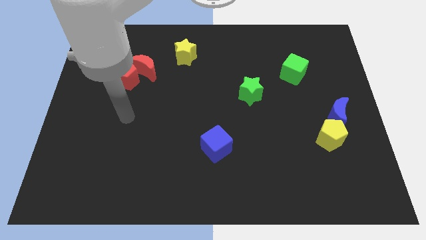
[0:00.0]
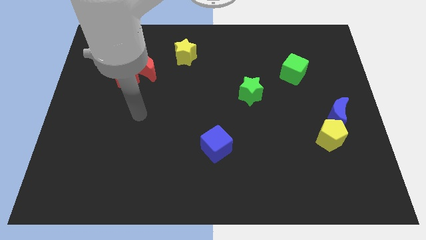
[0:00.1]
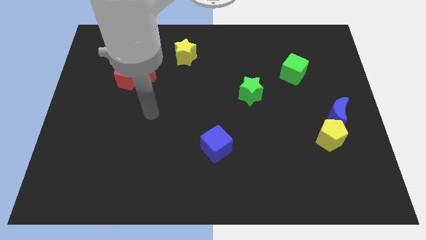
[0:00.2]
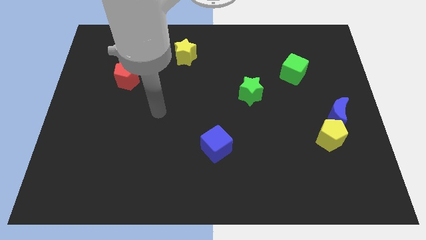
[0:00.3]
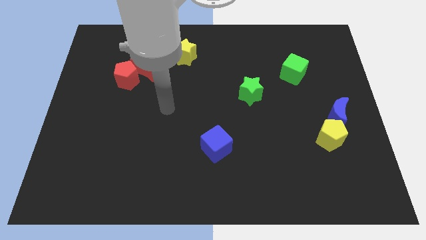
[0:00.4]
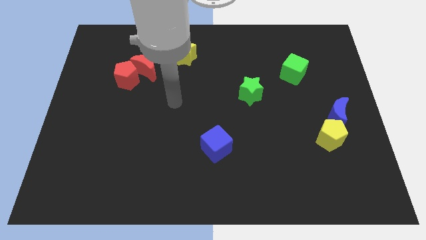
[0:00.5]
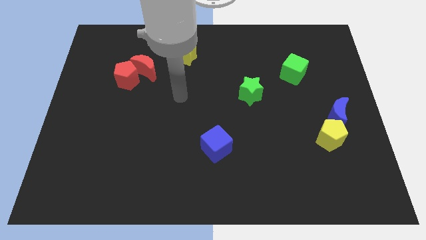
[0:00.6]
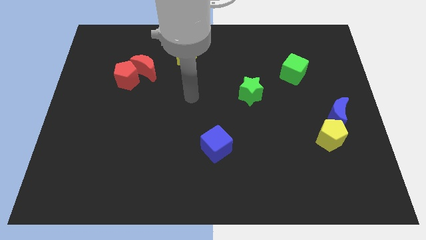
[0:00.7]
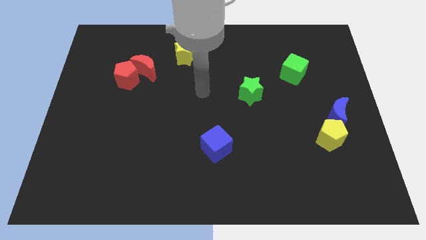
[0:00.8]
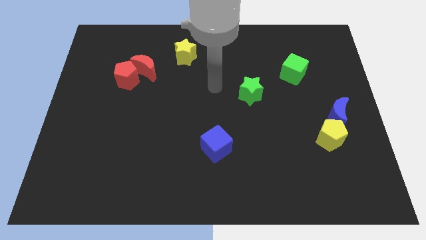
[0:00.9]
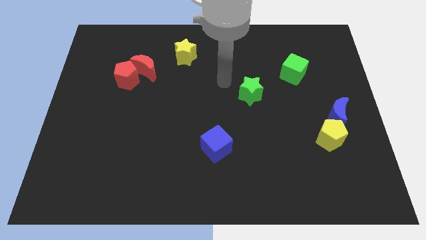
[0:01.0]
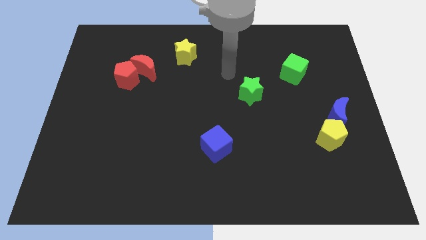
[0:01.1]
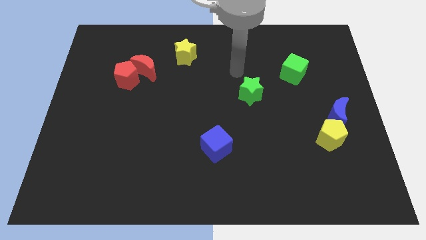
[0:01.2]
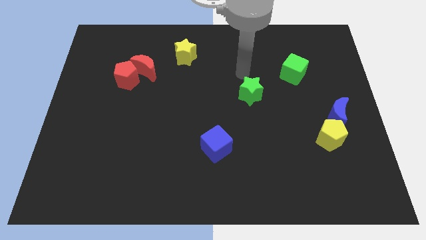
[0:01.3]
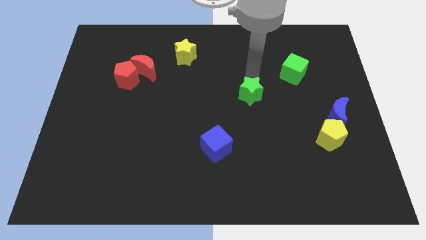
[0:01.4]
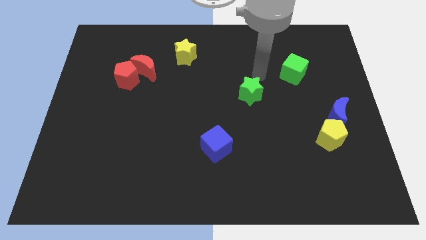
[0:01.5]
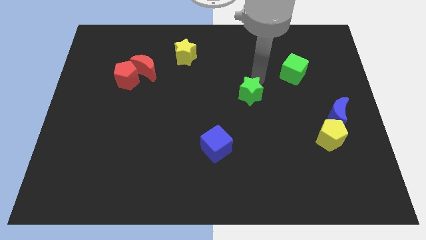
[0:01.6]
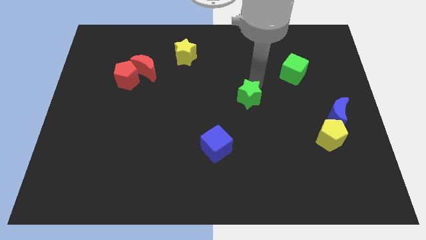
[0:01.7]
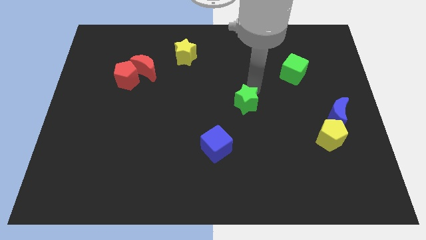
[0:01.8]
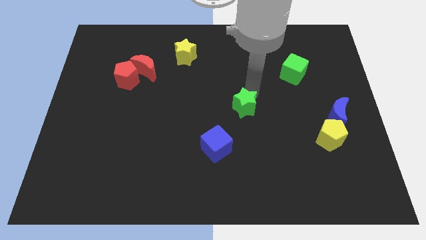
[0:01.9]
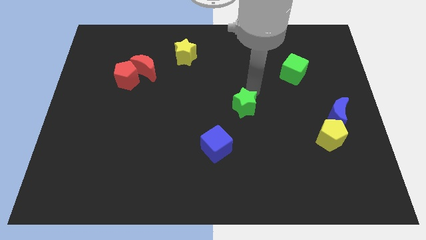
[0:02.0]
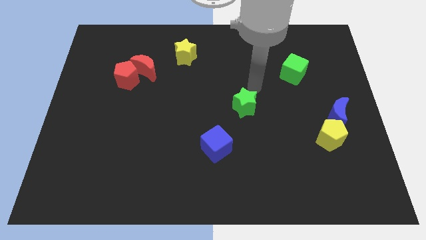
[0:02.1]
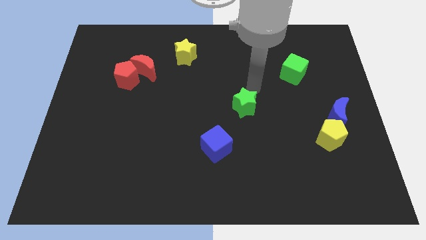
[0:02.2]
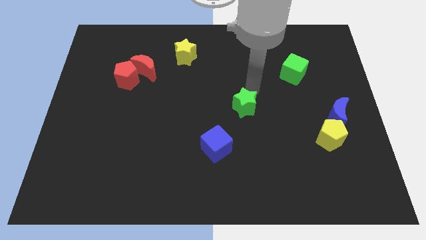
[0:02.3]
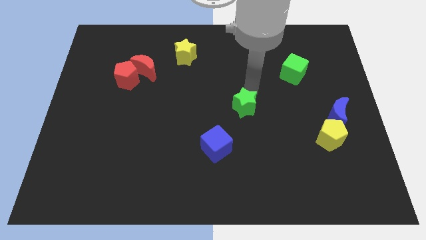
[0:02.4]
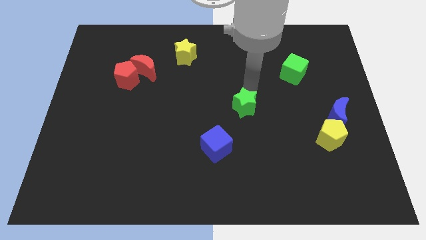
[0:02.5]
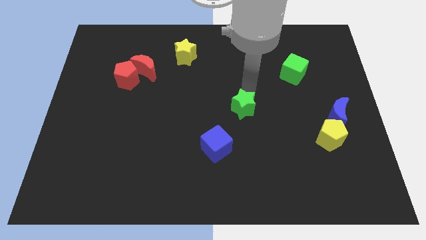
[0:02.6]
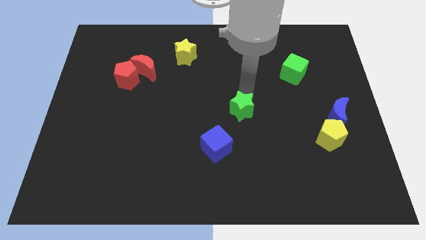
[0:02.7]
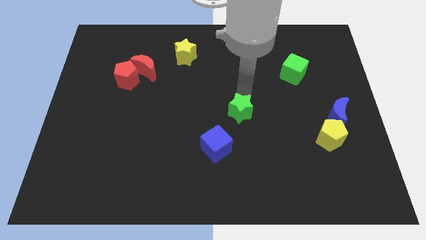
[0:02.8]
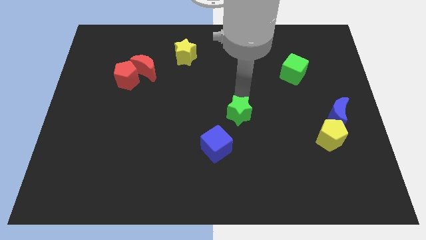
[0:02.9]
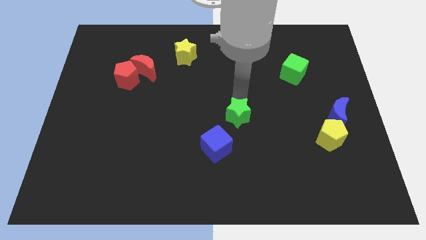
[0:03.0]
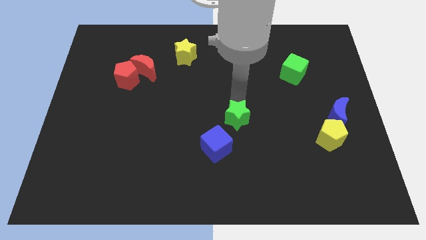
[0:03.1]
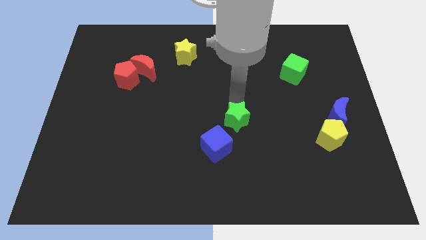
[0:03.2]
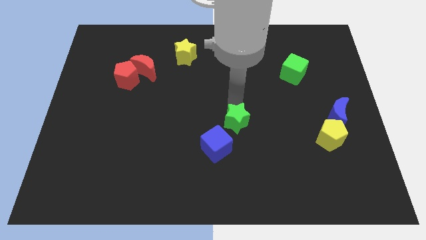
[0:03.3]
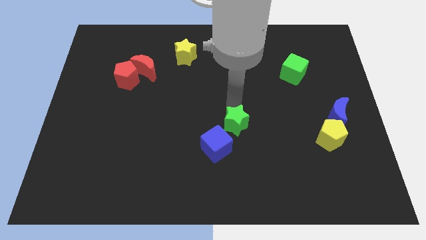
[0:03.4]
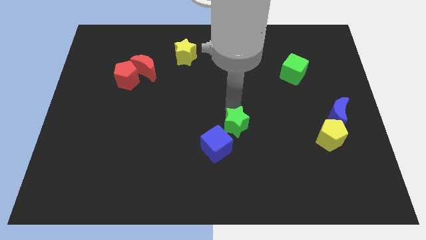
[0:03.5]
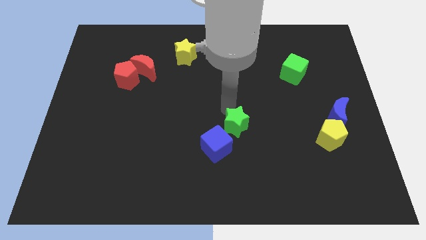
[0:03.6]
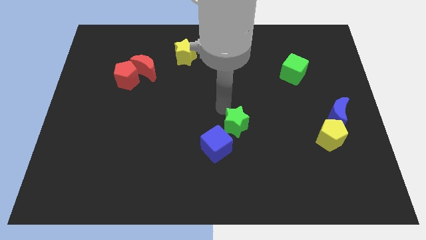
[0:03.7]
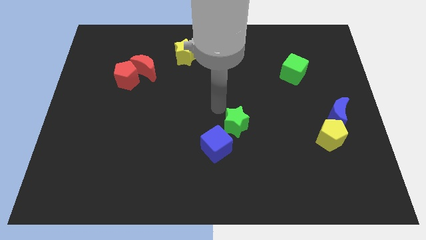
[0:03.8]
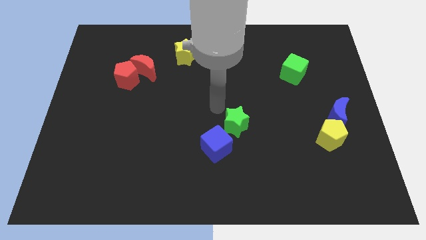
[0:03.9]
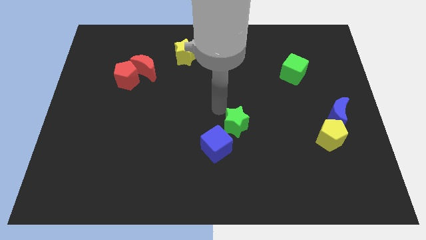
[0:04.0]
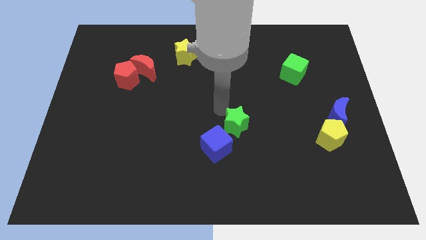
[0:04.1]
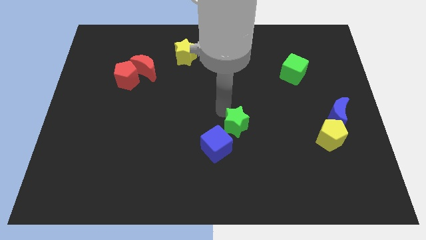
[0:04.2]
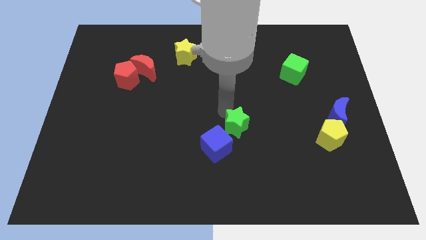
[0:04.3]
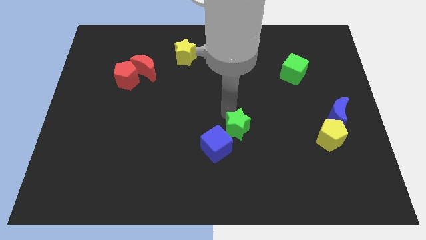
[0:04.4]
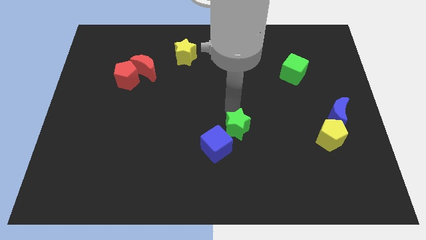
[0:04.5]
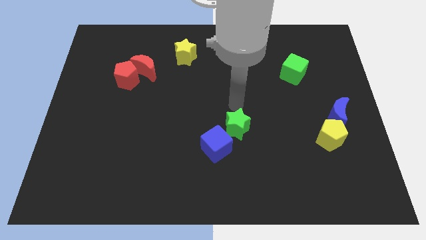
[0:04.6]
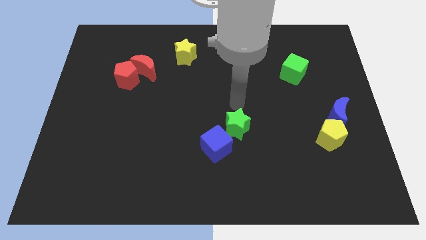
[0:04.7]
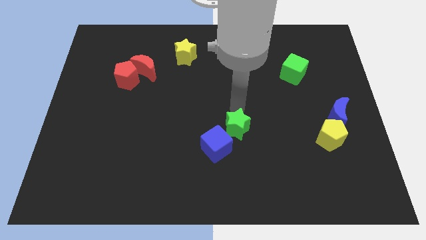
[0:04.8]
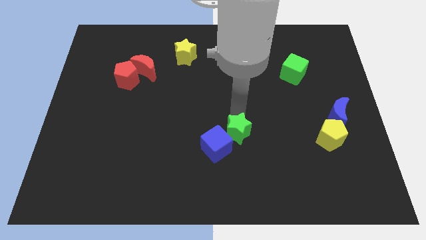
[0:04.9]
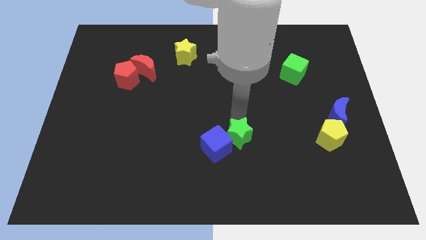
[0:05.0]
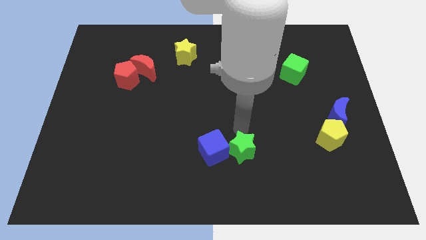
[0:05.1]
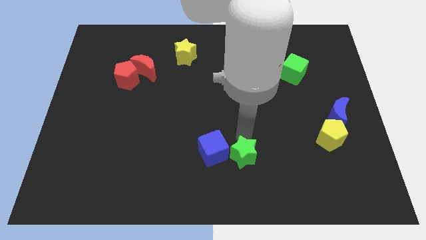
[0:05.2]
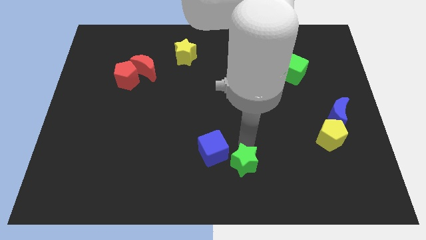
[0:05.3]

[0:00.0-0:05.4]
move the green star to the bottom

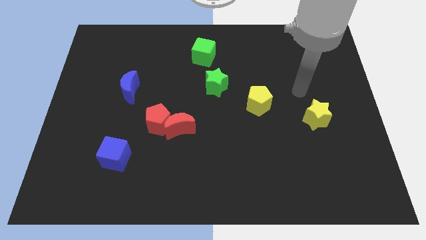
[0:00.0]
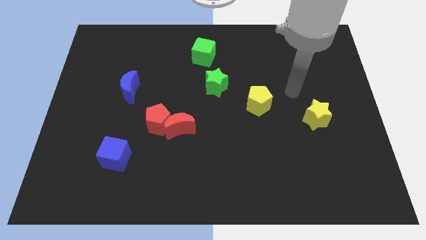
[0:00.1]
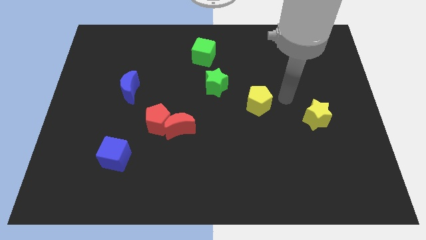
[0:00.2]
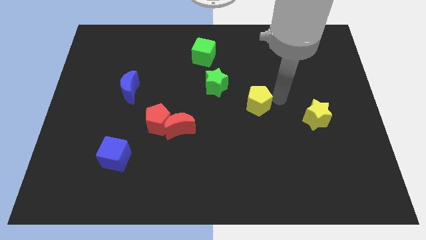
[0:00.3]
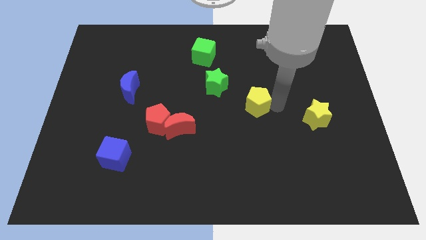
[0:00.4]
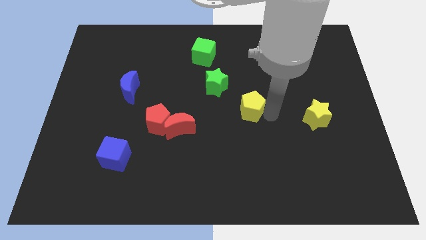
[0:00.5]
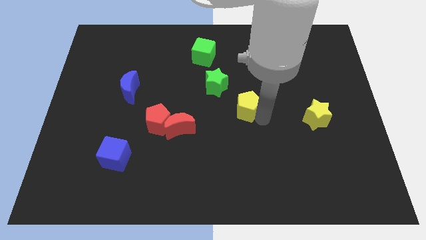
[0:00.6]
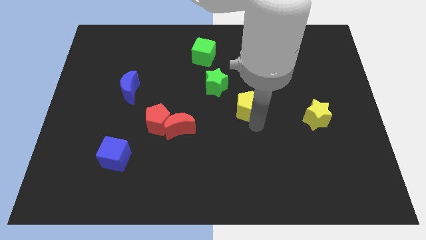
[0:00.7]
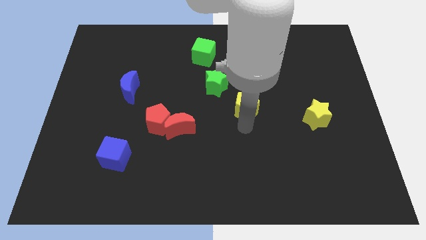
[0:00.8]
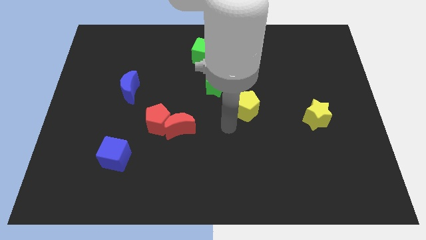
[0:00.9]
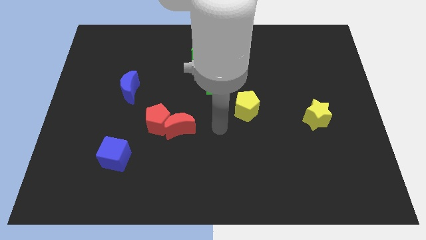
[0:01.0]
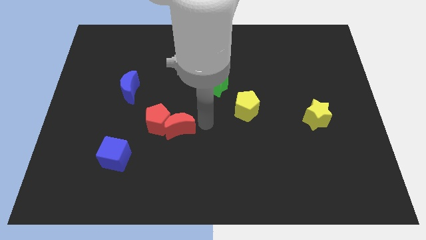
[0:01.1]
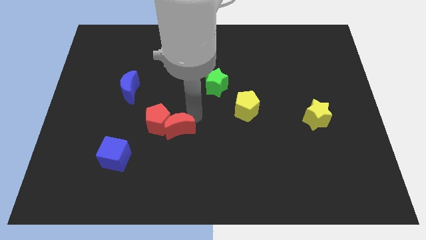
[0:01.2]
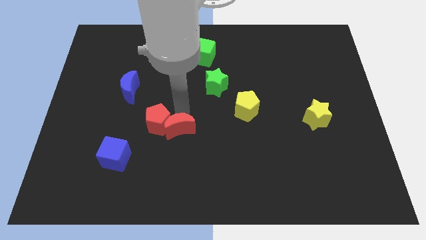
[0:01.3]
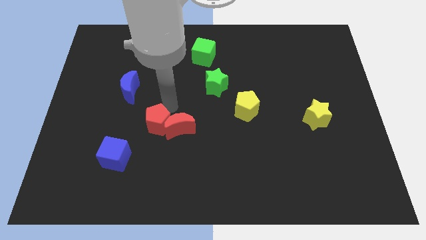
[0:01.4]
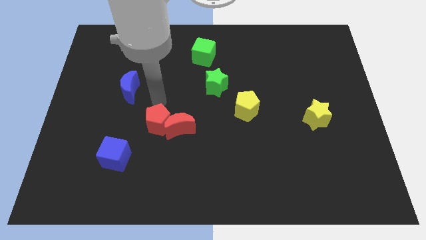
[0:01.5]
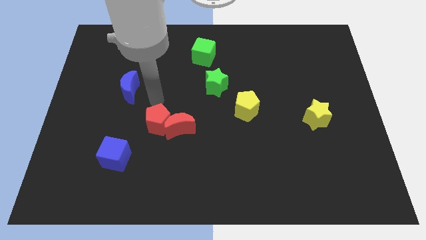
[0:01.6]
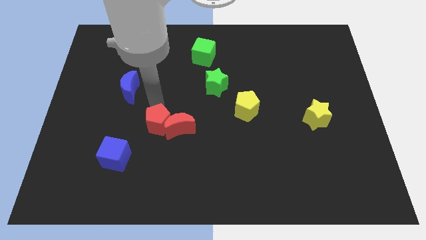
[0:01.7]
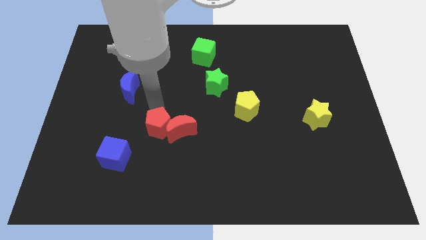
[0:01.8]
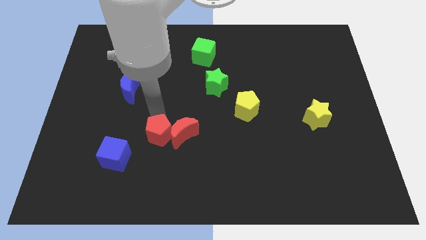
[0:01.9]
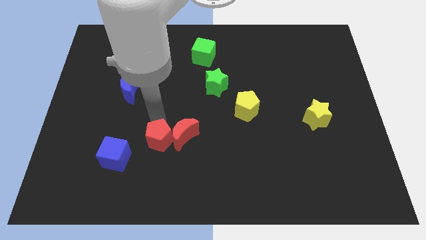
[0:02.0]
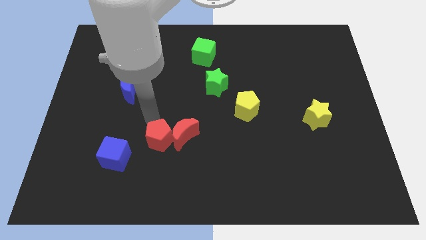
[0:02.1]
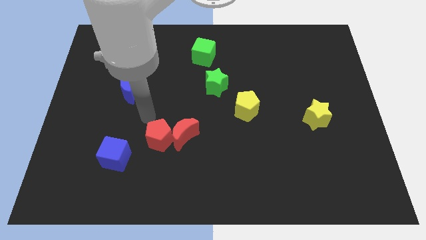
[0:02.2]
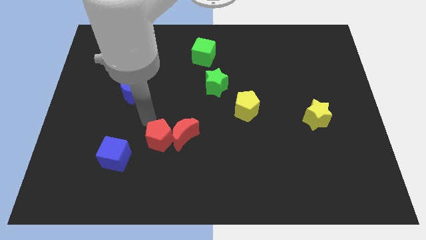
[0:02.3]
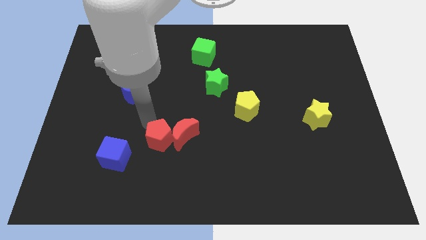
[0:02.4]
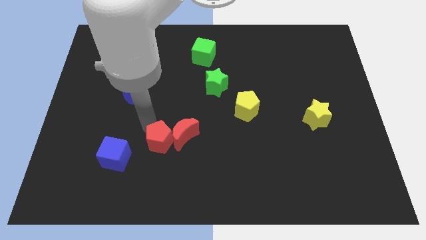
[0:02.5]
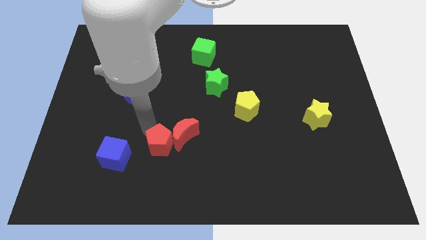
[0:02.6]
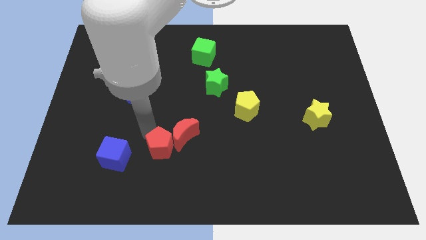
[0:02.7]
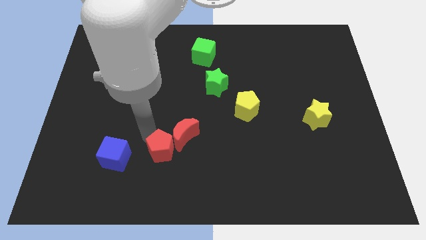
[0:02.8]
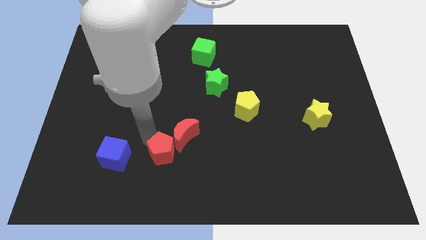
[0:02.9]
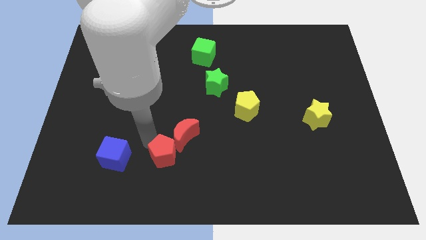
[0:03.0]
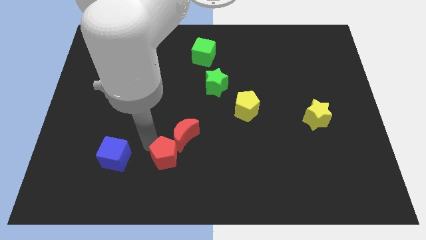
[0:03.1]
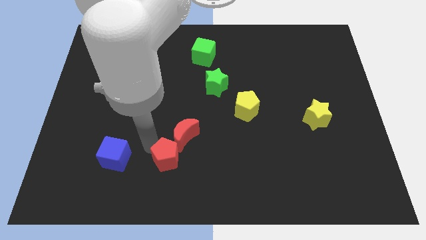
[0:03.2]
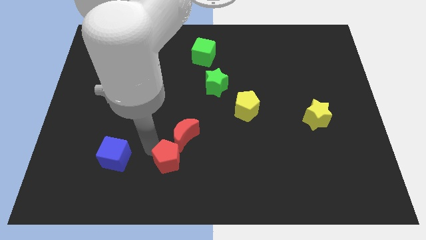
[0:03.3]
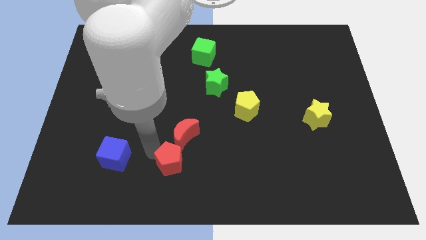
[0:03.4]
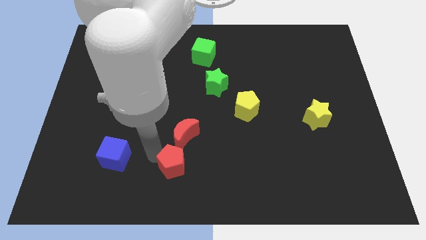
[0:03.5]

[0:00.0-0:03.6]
slide the red pentagon to the bottom
